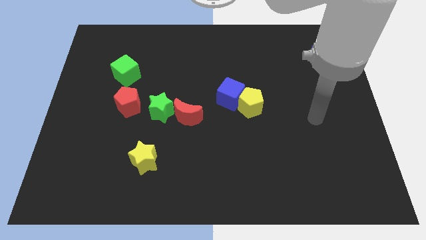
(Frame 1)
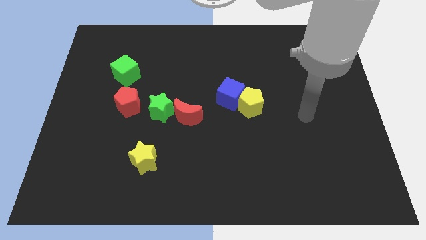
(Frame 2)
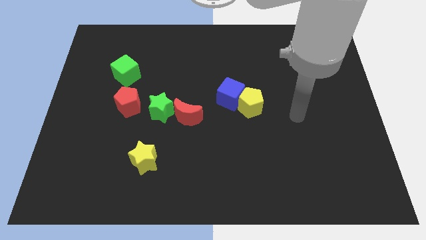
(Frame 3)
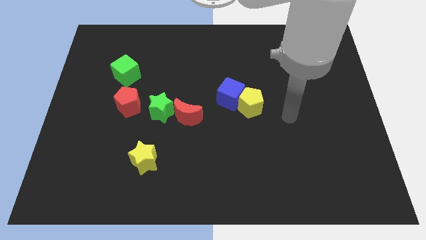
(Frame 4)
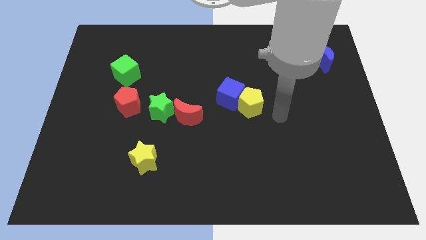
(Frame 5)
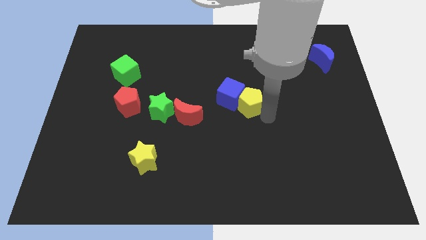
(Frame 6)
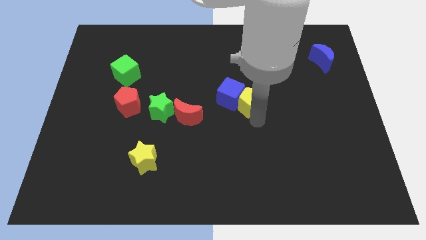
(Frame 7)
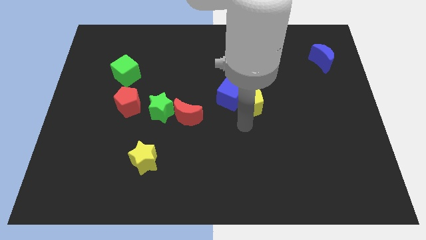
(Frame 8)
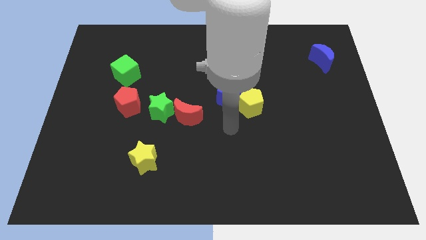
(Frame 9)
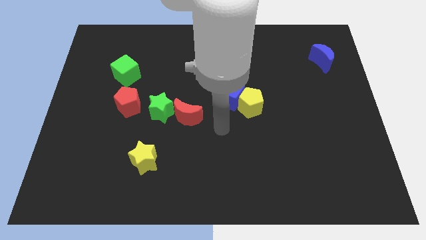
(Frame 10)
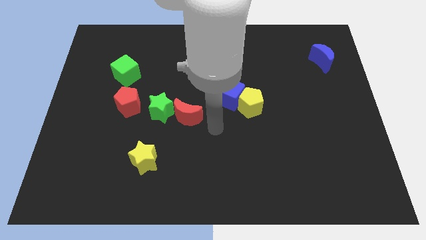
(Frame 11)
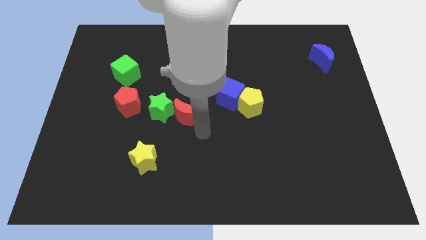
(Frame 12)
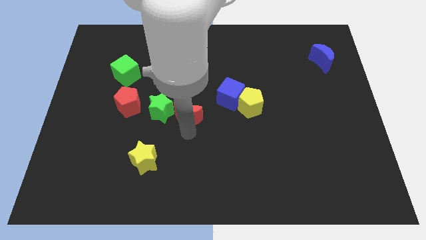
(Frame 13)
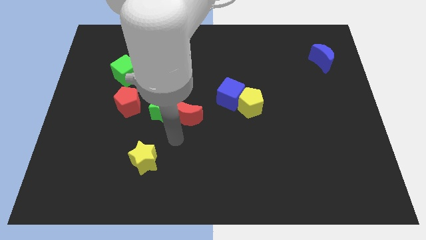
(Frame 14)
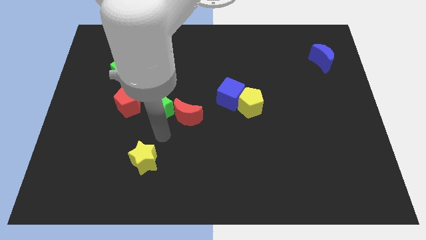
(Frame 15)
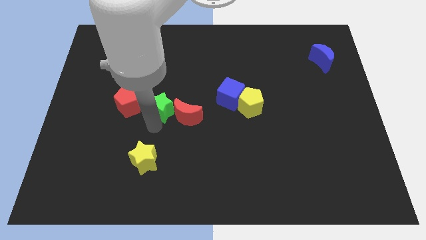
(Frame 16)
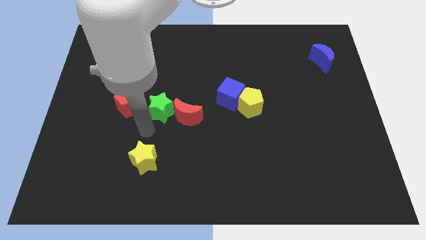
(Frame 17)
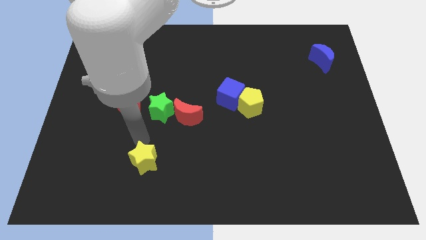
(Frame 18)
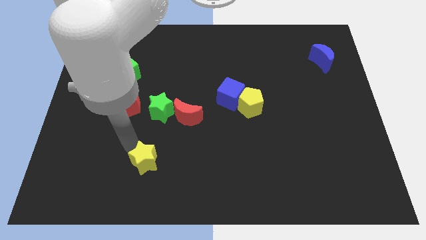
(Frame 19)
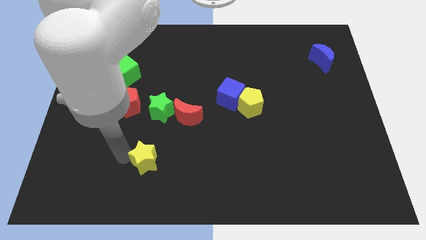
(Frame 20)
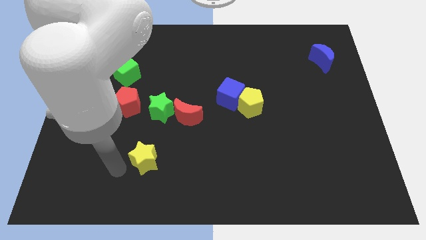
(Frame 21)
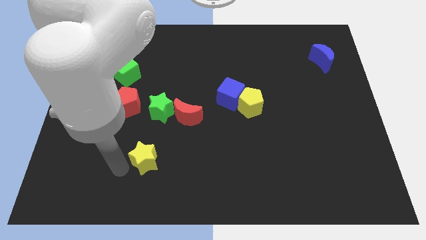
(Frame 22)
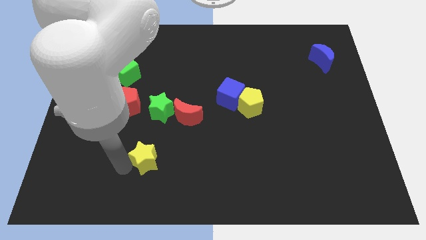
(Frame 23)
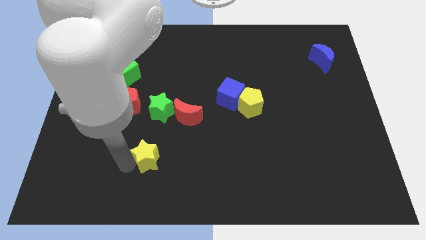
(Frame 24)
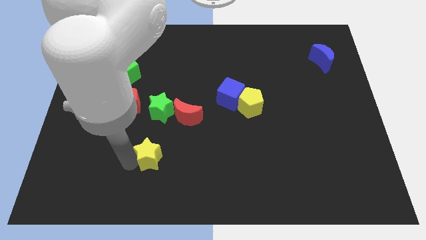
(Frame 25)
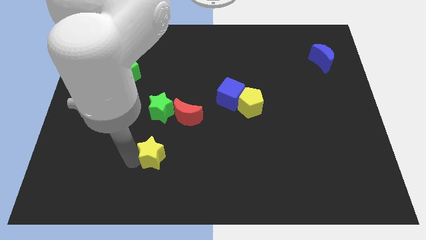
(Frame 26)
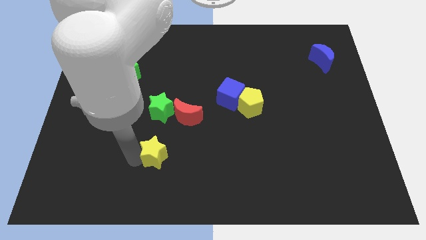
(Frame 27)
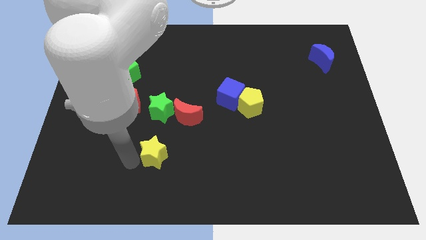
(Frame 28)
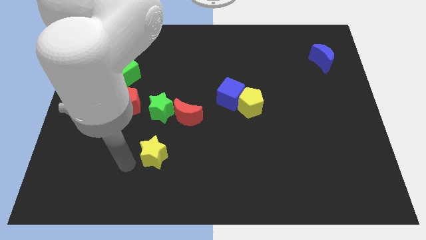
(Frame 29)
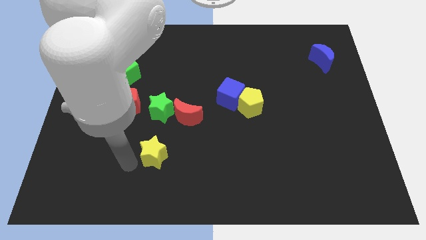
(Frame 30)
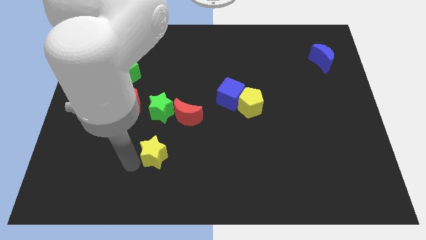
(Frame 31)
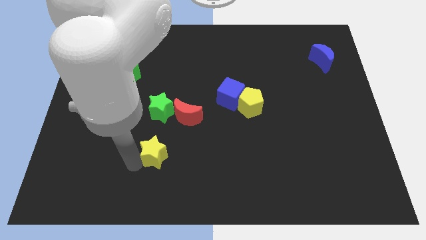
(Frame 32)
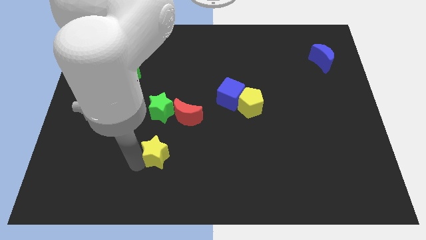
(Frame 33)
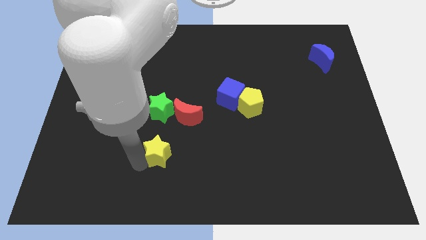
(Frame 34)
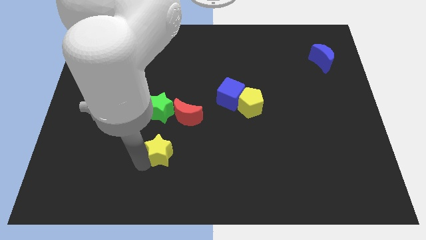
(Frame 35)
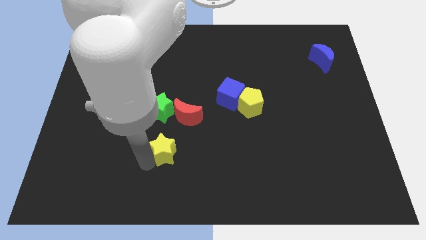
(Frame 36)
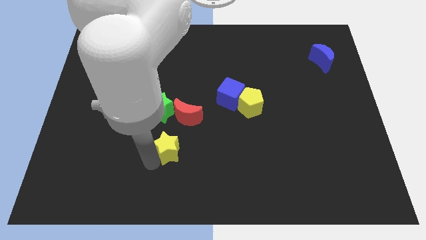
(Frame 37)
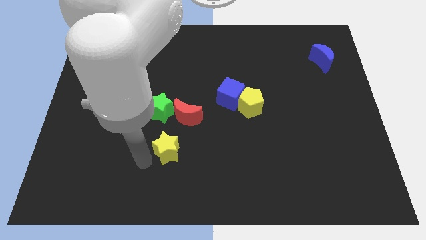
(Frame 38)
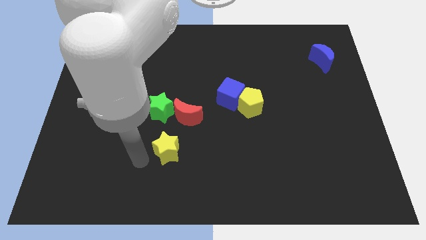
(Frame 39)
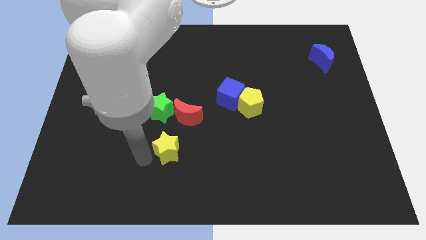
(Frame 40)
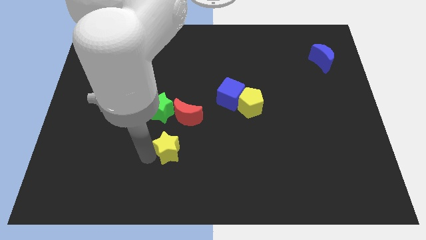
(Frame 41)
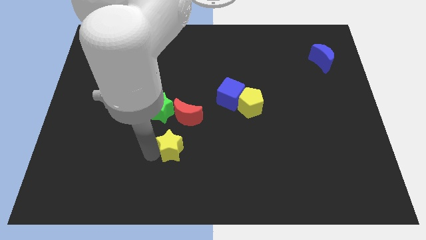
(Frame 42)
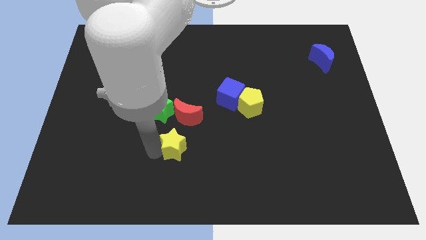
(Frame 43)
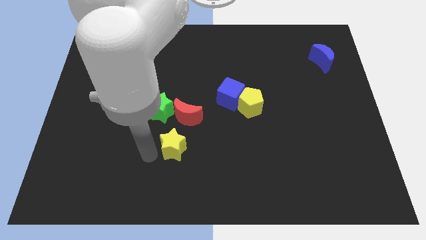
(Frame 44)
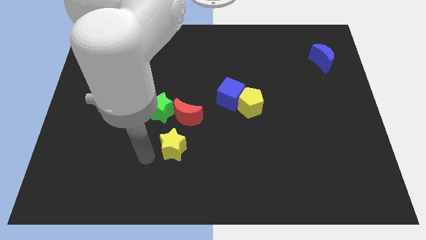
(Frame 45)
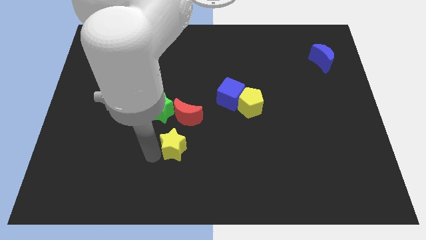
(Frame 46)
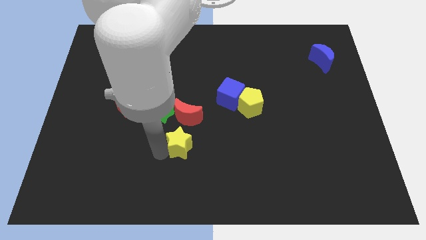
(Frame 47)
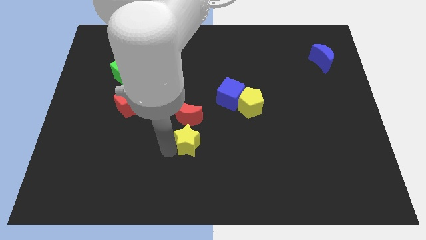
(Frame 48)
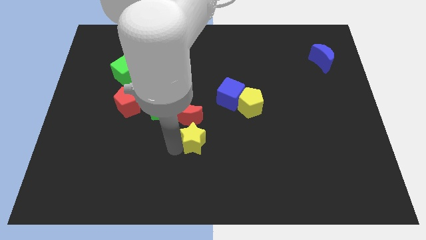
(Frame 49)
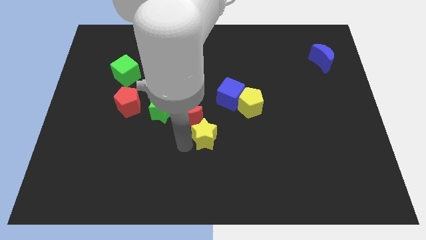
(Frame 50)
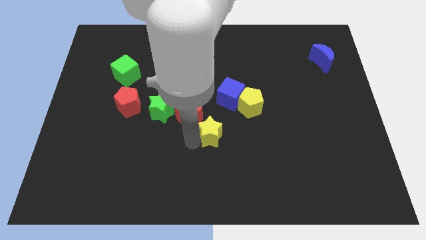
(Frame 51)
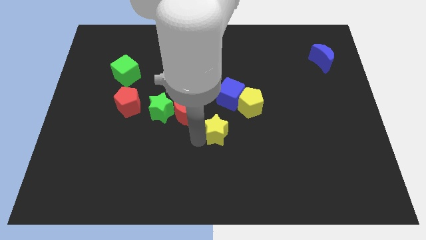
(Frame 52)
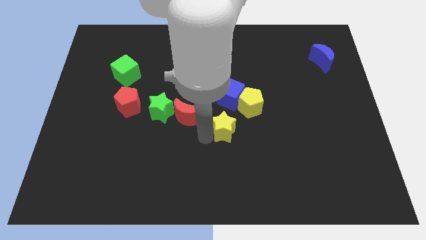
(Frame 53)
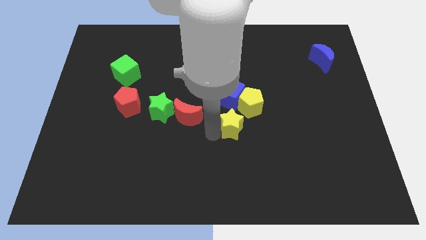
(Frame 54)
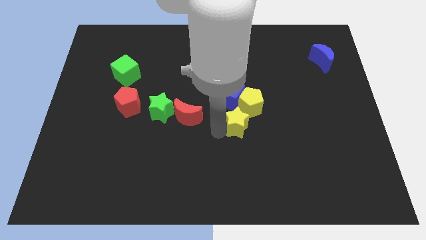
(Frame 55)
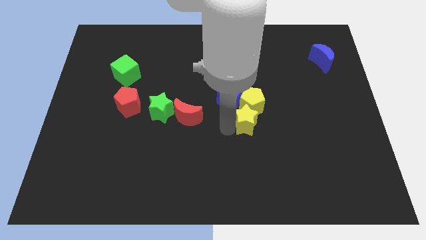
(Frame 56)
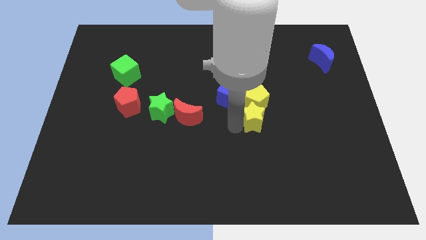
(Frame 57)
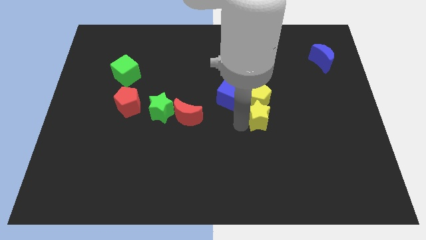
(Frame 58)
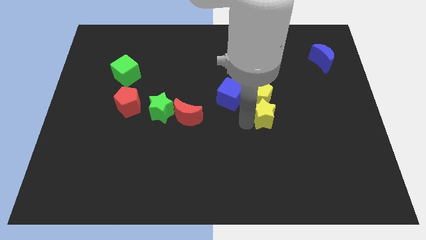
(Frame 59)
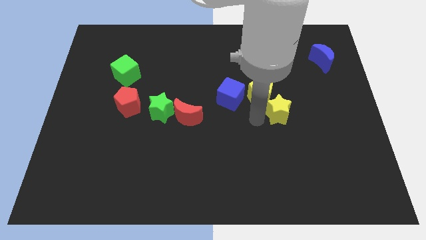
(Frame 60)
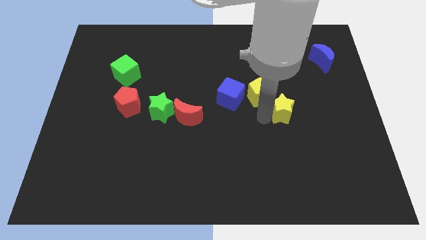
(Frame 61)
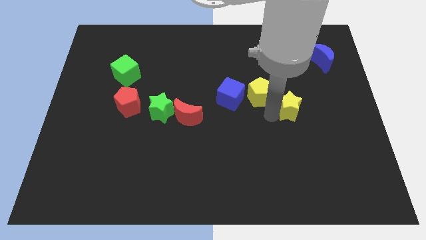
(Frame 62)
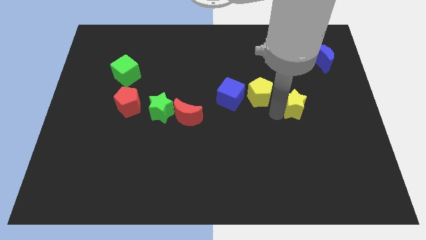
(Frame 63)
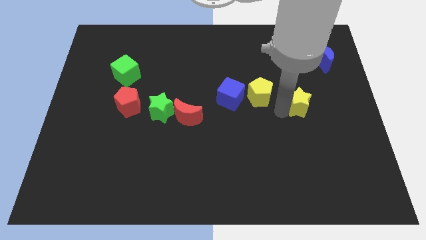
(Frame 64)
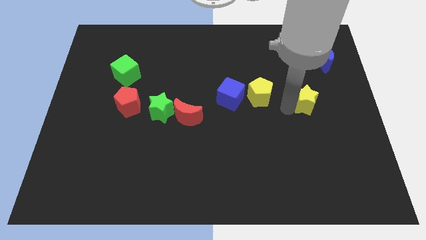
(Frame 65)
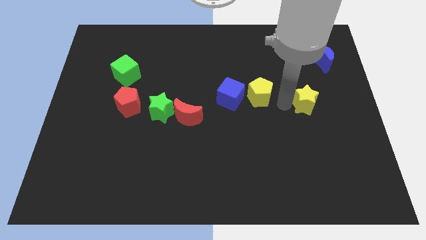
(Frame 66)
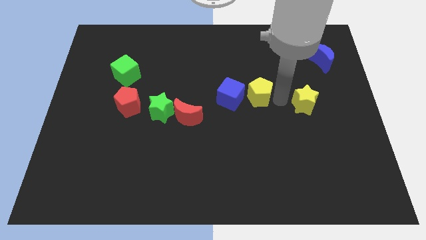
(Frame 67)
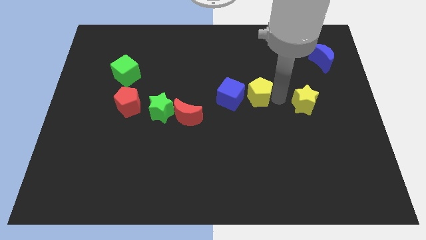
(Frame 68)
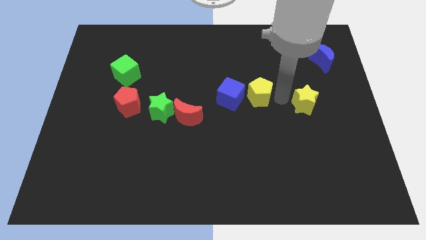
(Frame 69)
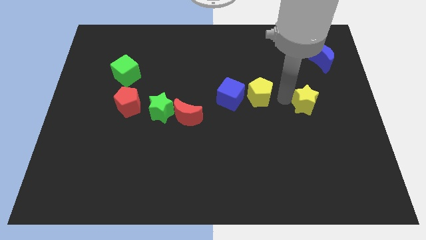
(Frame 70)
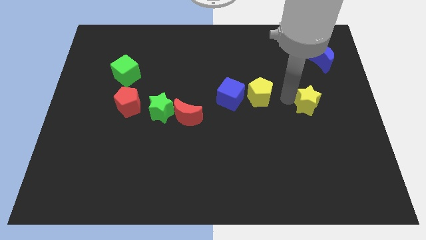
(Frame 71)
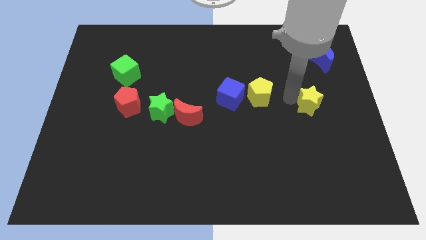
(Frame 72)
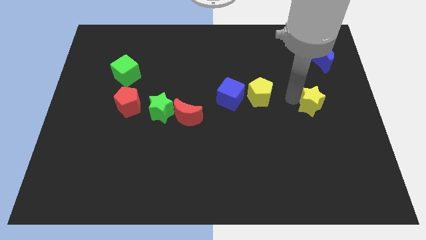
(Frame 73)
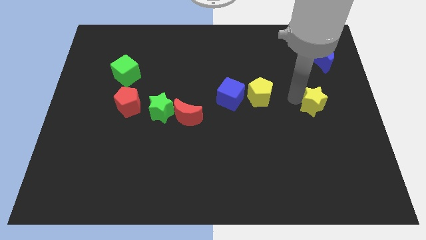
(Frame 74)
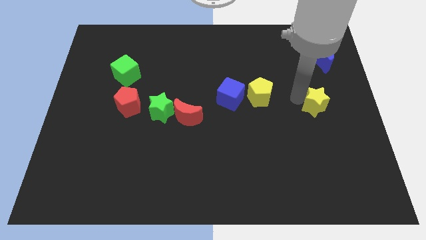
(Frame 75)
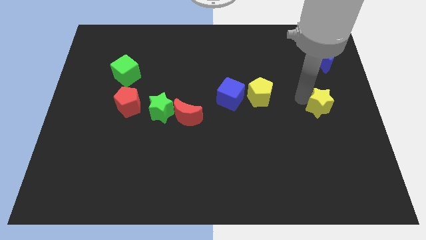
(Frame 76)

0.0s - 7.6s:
move the yellow star to the right side of the board
